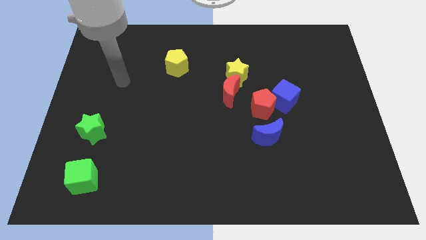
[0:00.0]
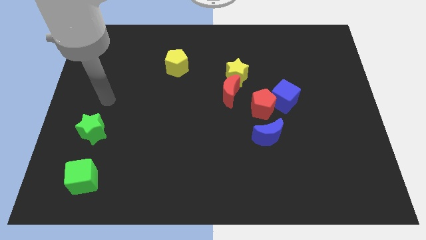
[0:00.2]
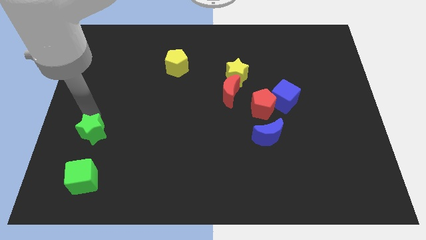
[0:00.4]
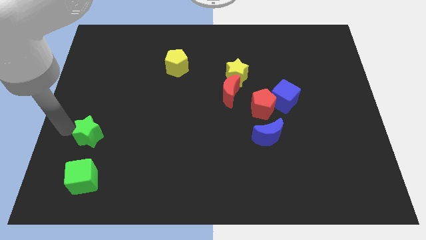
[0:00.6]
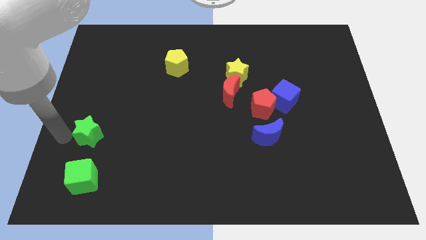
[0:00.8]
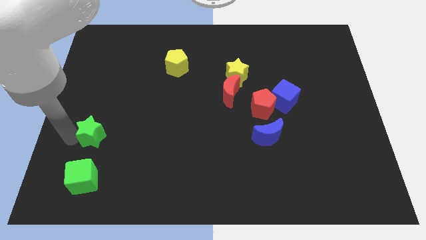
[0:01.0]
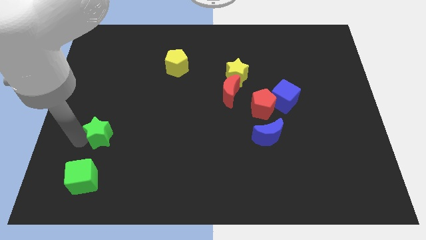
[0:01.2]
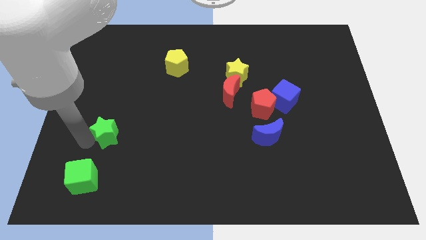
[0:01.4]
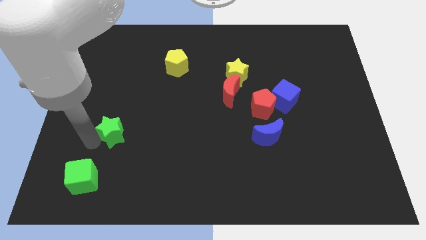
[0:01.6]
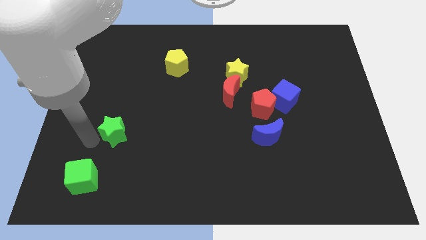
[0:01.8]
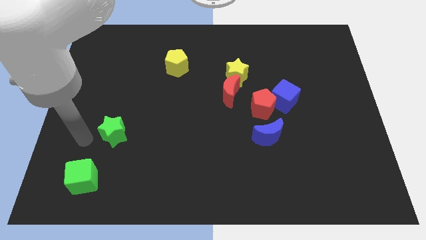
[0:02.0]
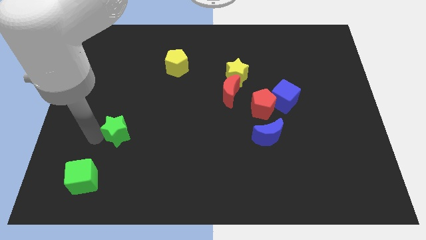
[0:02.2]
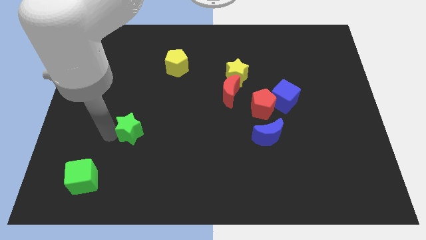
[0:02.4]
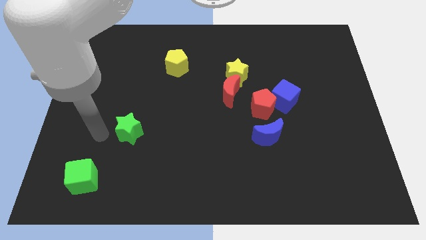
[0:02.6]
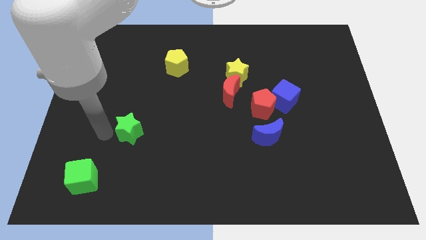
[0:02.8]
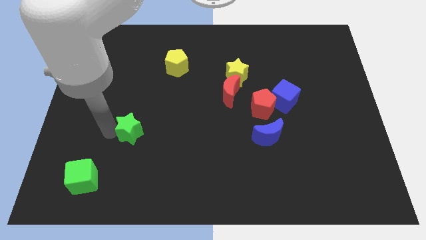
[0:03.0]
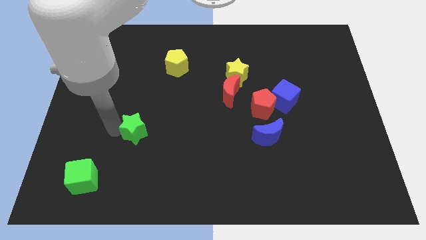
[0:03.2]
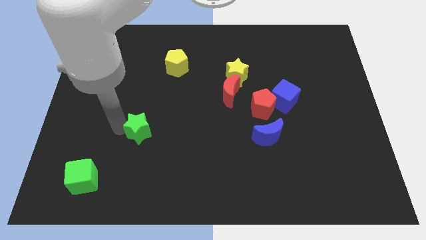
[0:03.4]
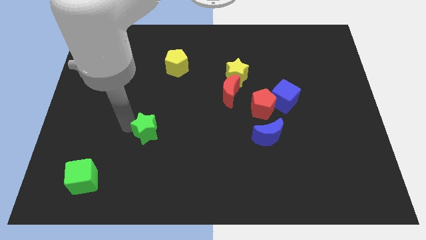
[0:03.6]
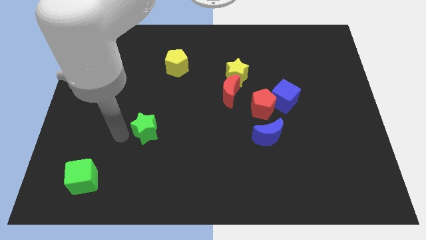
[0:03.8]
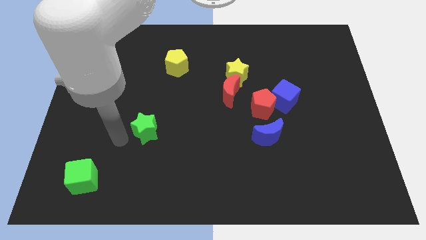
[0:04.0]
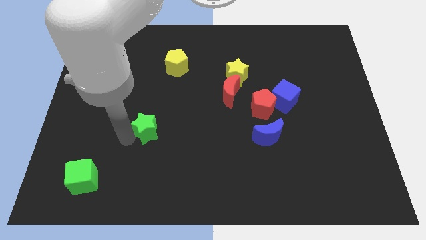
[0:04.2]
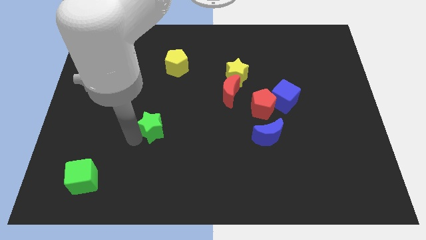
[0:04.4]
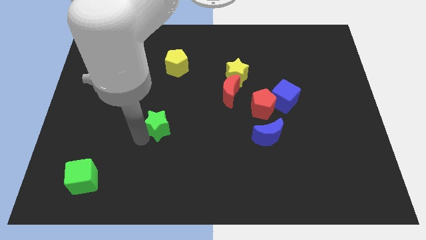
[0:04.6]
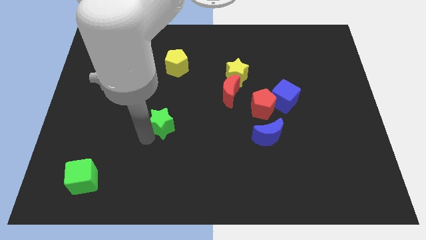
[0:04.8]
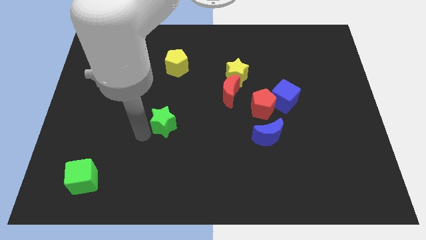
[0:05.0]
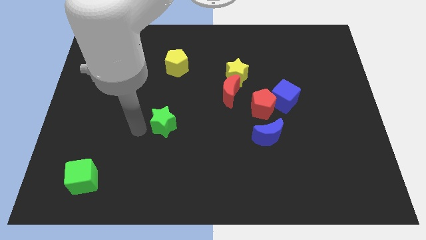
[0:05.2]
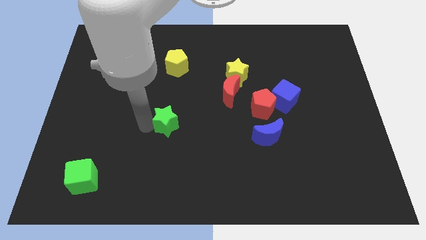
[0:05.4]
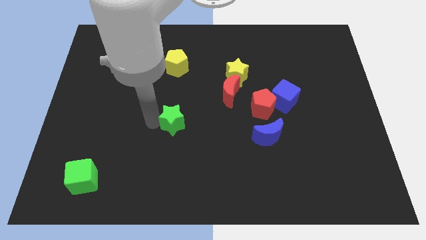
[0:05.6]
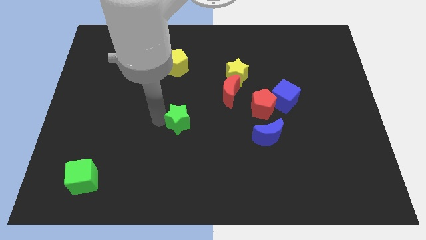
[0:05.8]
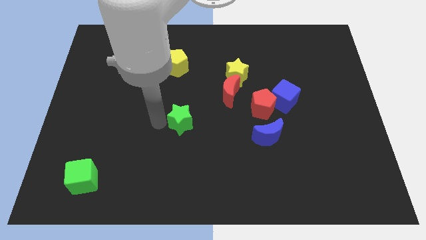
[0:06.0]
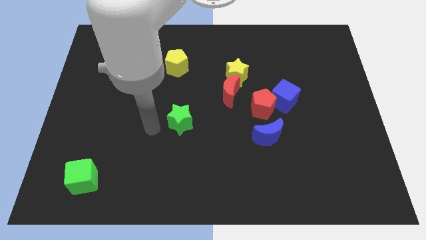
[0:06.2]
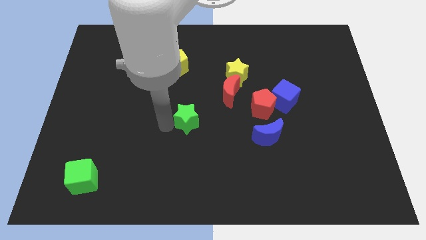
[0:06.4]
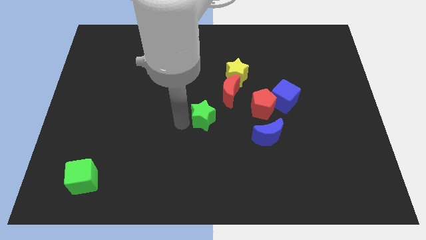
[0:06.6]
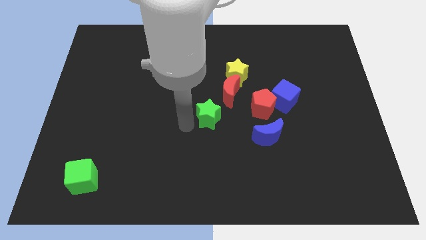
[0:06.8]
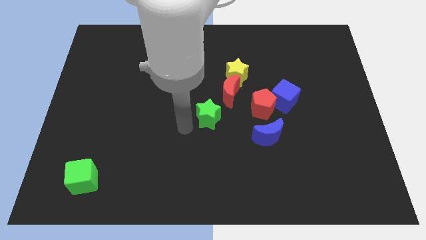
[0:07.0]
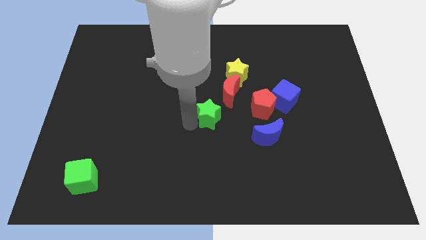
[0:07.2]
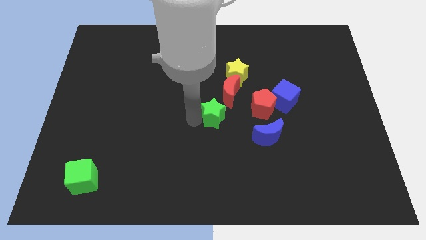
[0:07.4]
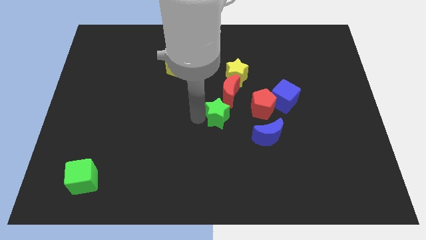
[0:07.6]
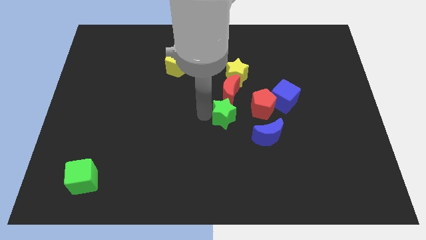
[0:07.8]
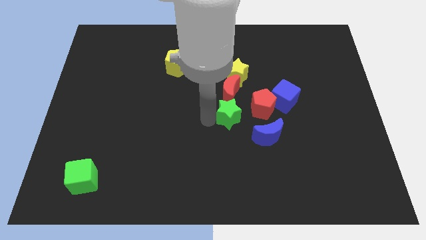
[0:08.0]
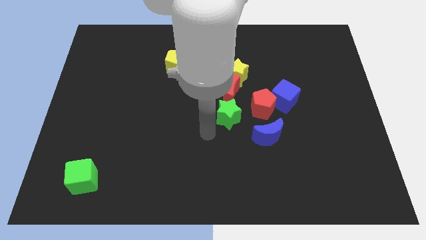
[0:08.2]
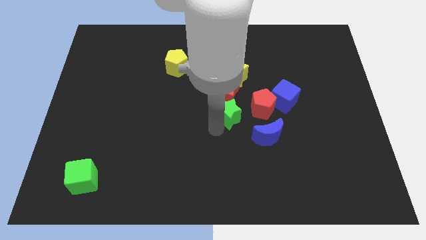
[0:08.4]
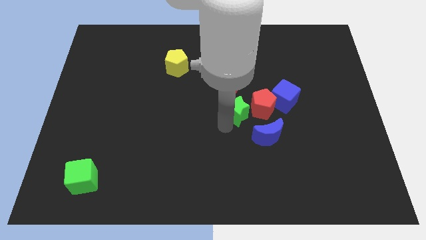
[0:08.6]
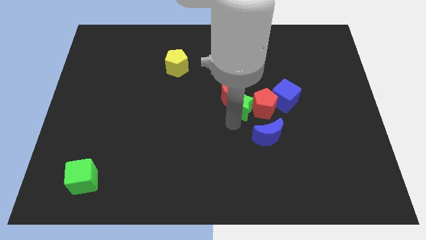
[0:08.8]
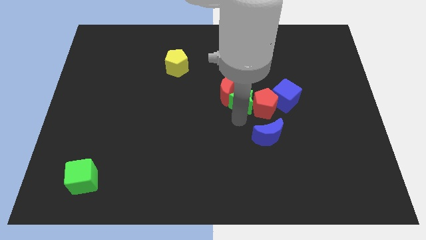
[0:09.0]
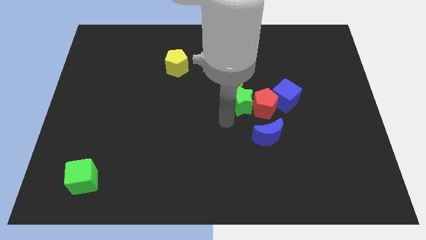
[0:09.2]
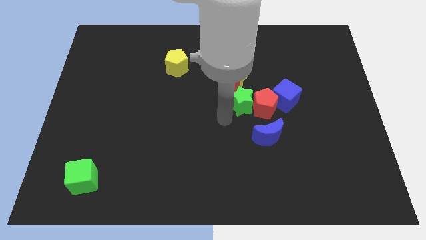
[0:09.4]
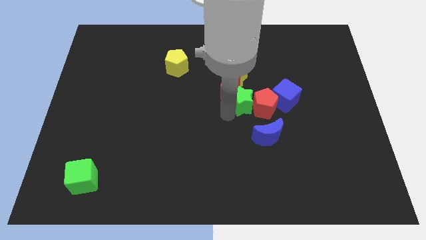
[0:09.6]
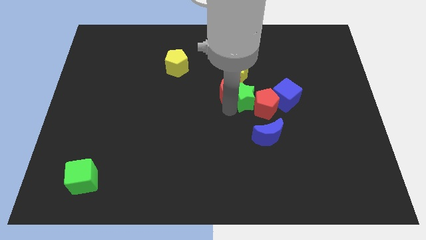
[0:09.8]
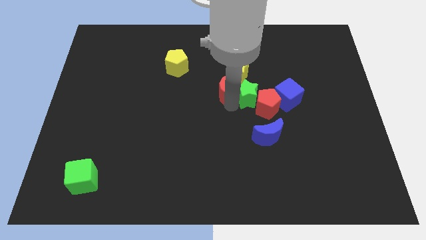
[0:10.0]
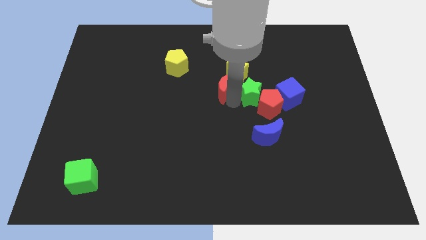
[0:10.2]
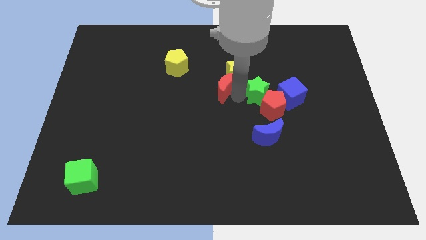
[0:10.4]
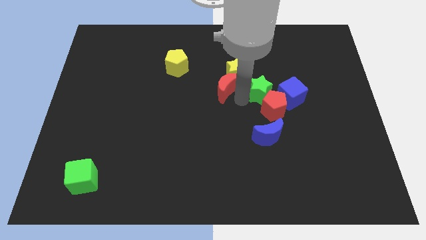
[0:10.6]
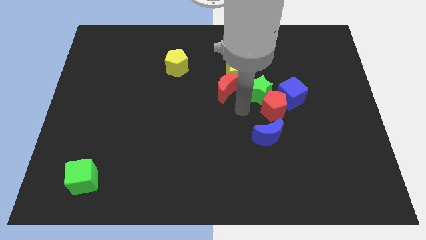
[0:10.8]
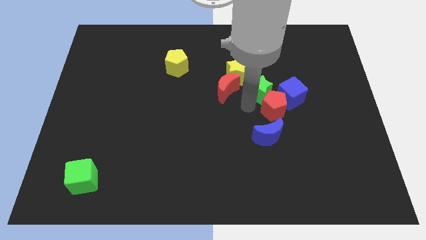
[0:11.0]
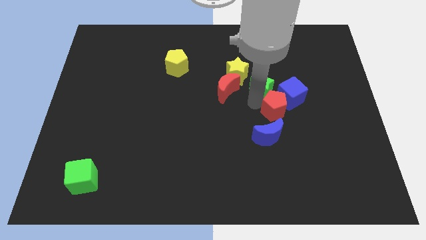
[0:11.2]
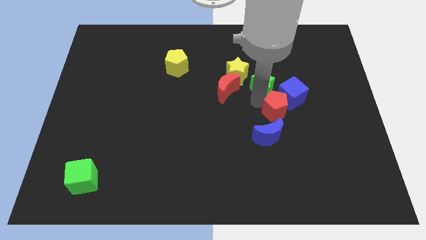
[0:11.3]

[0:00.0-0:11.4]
push the green star to the right of the yellow star

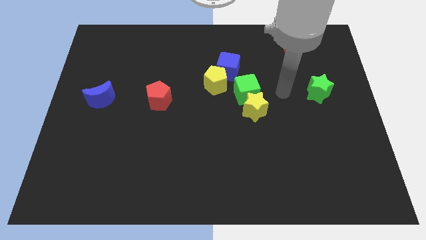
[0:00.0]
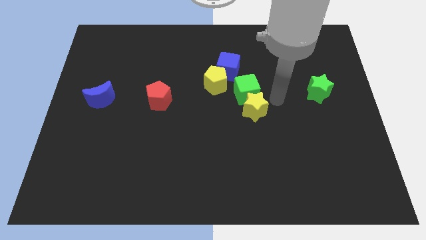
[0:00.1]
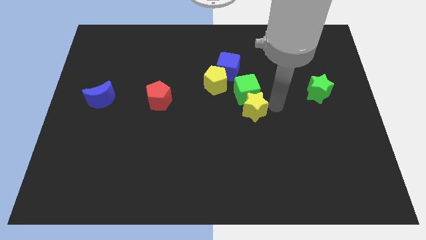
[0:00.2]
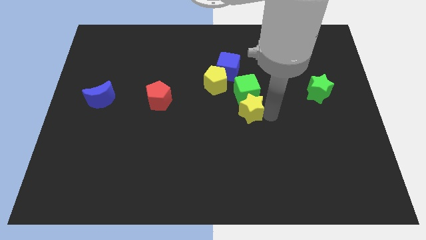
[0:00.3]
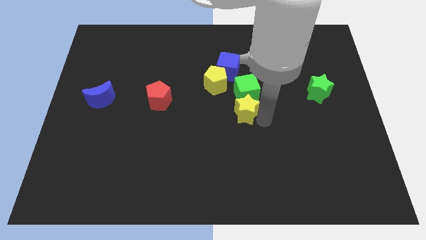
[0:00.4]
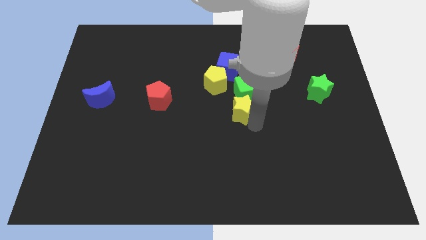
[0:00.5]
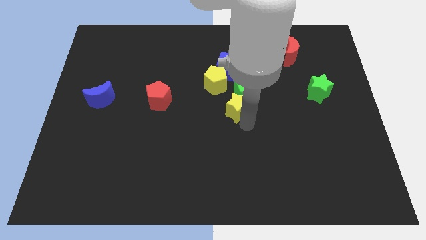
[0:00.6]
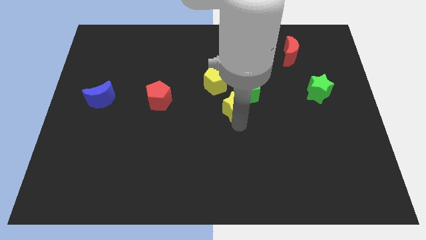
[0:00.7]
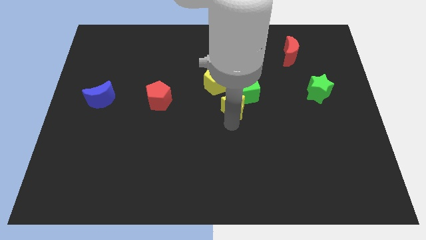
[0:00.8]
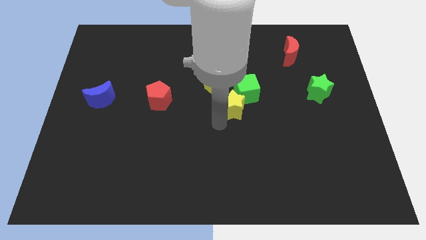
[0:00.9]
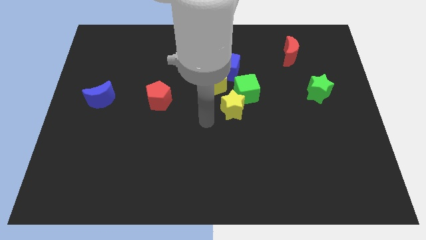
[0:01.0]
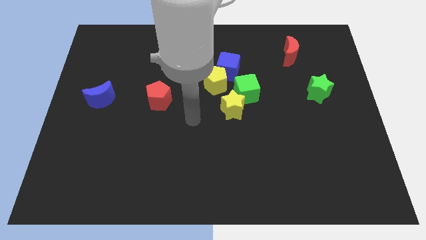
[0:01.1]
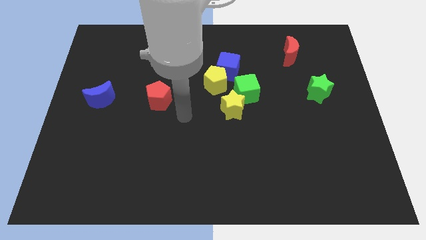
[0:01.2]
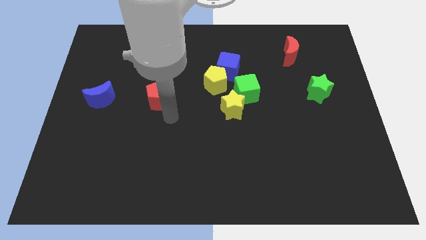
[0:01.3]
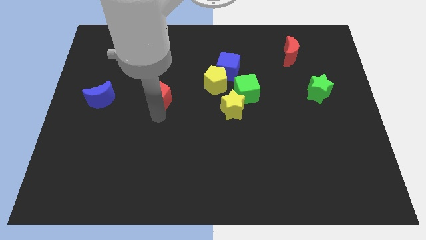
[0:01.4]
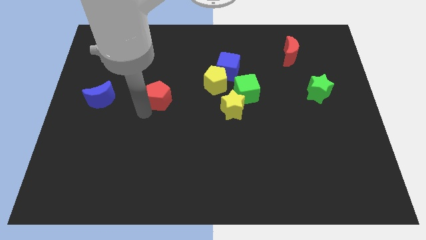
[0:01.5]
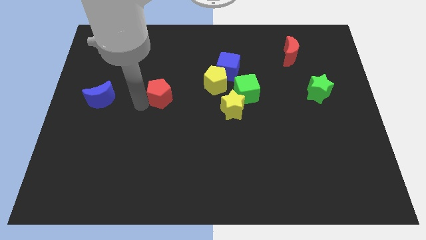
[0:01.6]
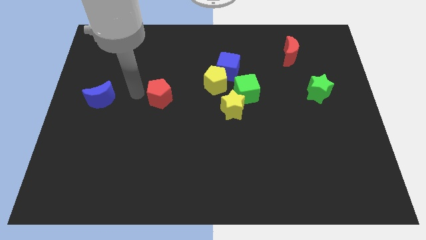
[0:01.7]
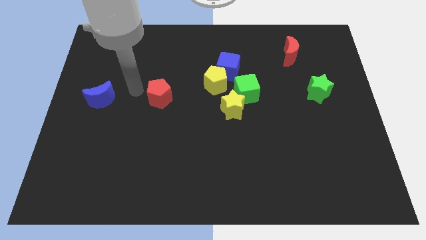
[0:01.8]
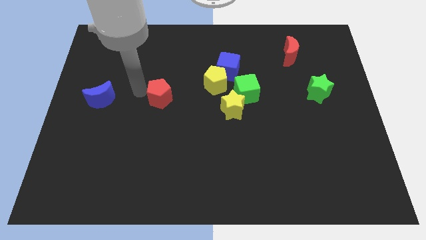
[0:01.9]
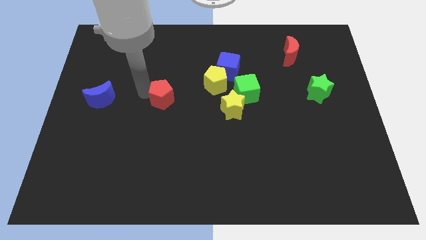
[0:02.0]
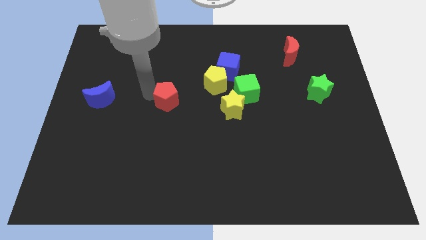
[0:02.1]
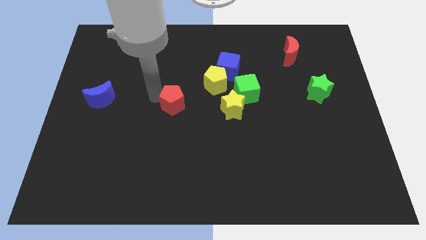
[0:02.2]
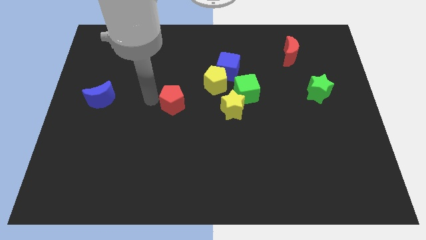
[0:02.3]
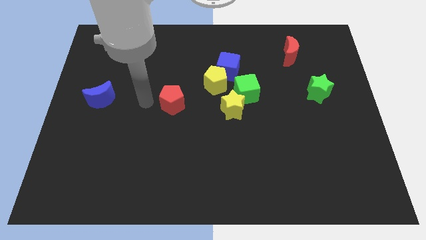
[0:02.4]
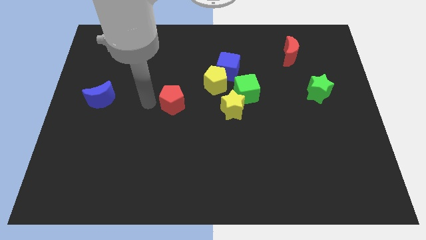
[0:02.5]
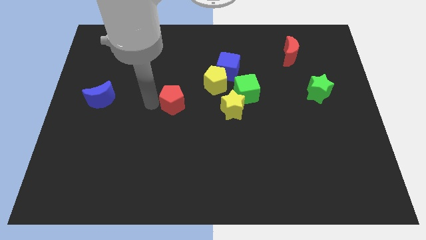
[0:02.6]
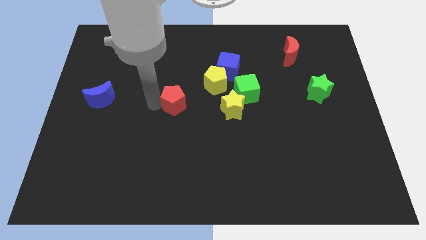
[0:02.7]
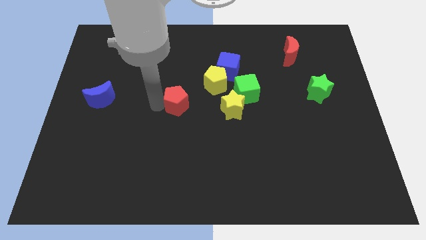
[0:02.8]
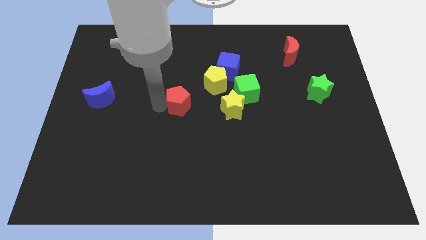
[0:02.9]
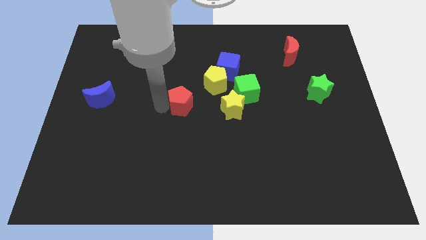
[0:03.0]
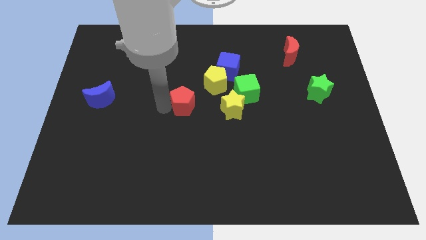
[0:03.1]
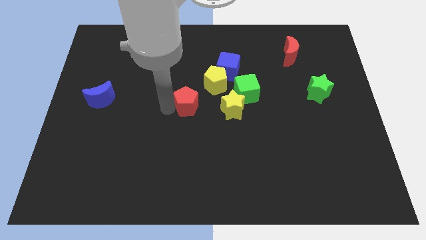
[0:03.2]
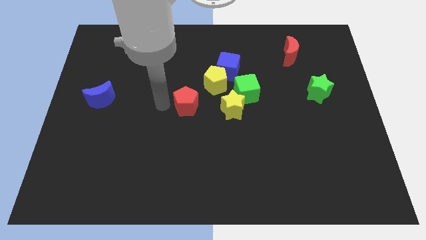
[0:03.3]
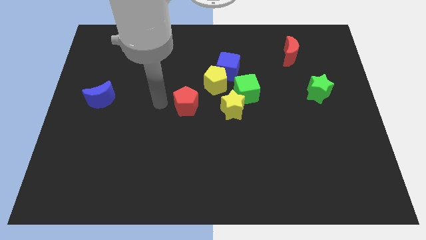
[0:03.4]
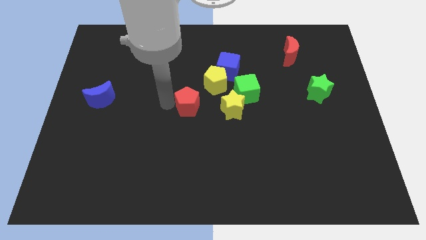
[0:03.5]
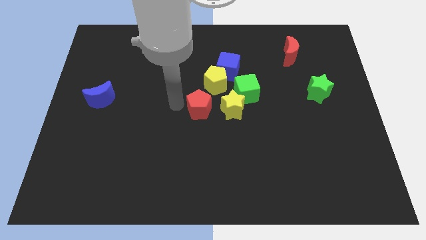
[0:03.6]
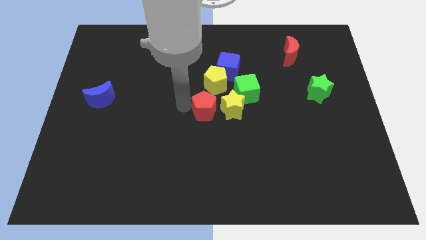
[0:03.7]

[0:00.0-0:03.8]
put the red pentagon to the bottom left side of the green cube
